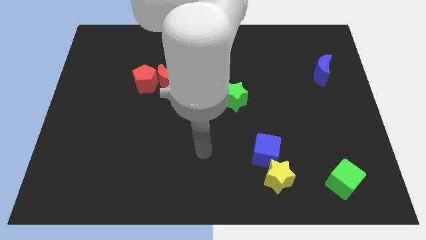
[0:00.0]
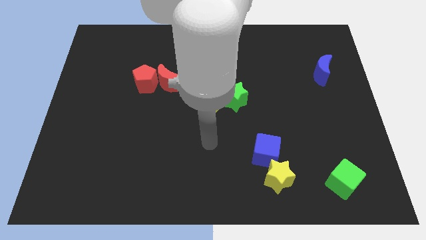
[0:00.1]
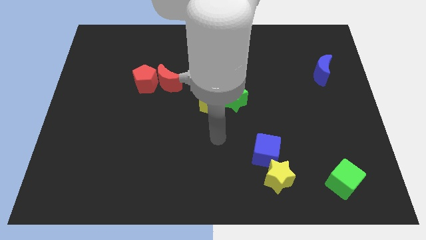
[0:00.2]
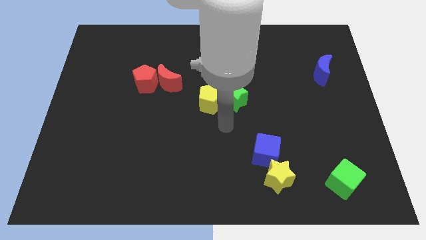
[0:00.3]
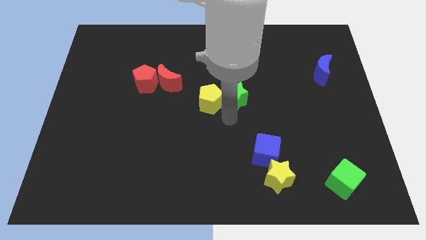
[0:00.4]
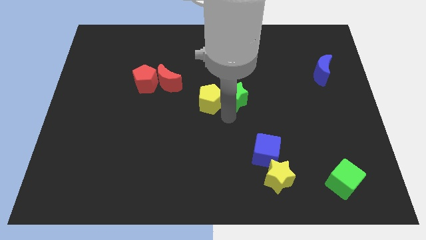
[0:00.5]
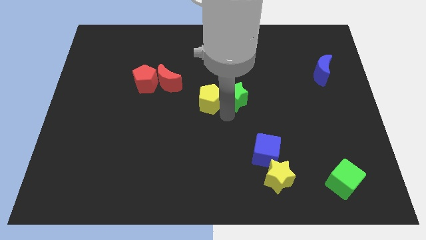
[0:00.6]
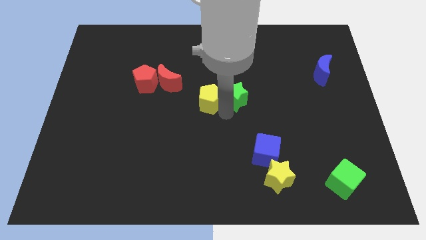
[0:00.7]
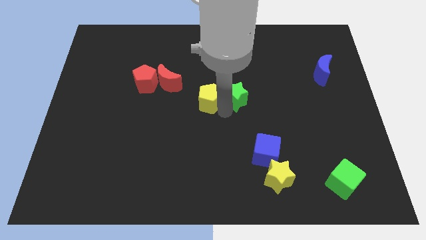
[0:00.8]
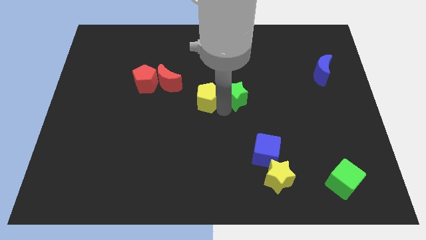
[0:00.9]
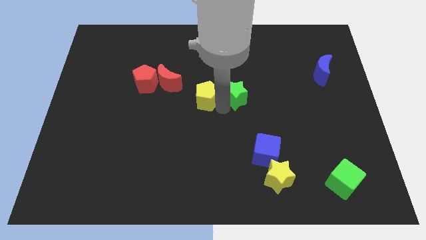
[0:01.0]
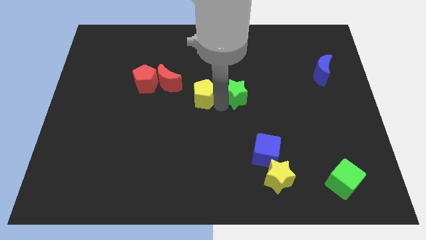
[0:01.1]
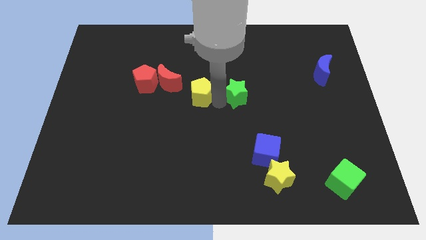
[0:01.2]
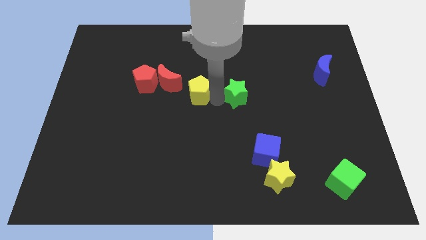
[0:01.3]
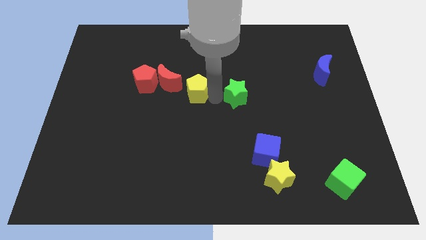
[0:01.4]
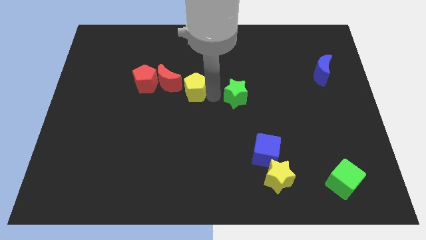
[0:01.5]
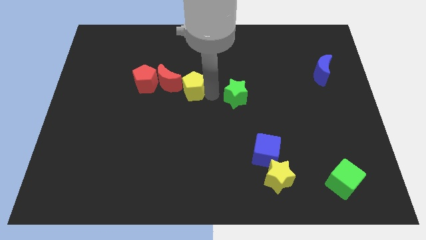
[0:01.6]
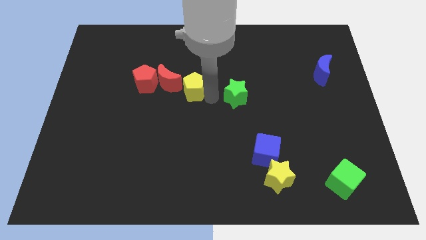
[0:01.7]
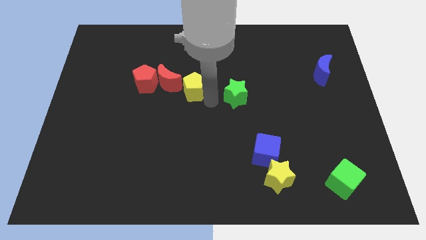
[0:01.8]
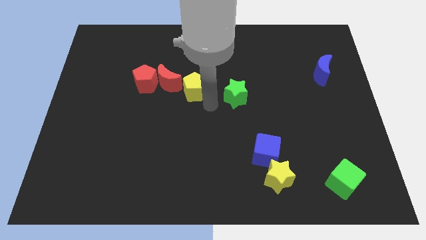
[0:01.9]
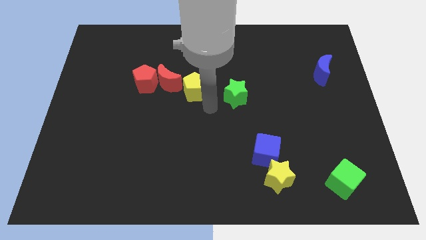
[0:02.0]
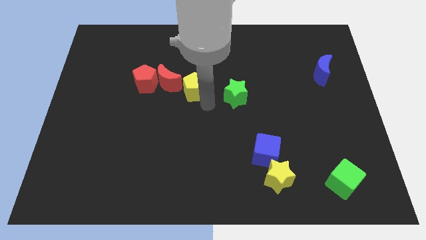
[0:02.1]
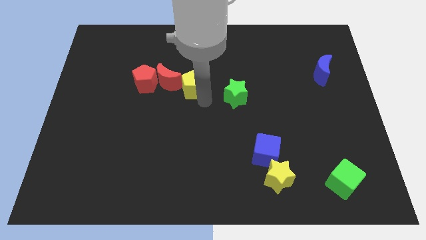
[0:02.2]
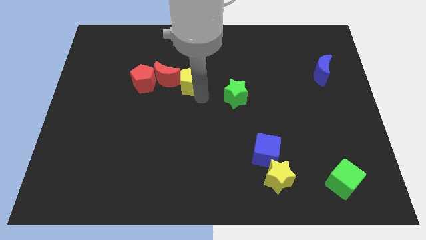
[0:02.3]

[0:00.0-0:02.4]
slide the yellow pentagon a little bit upwards and left diagonally

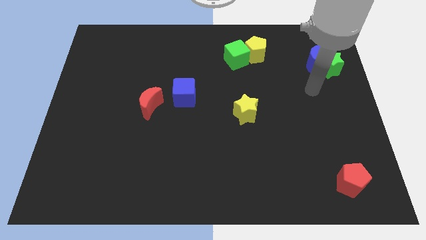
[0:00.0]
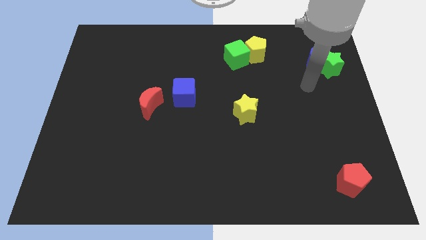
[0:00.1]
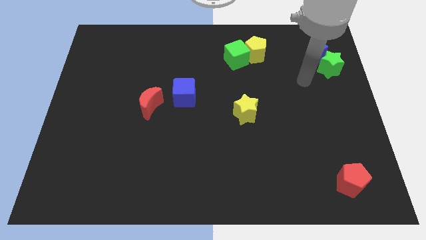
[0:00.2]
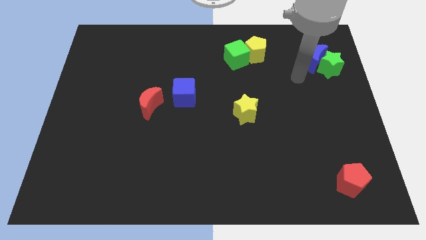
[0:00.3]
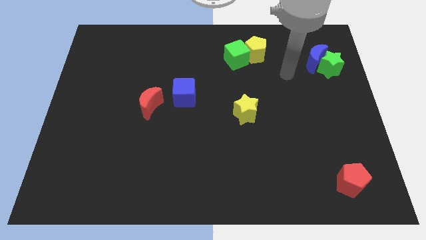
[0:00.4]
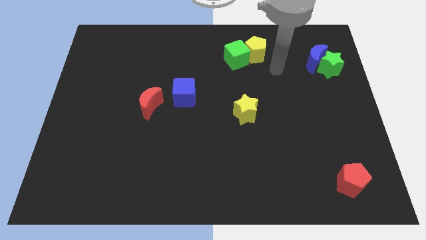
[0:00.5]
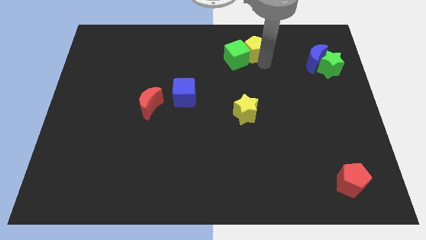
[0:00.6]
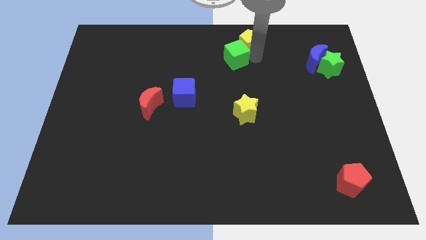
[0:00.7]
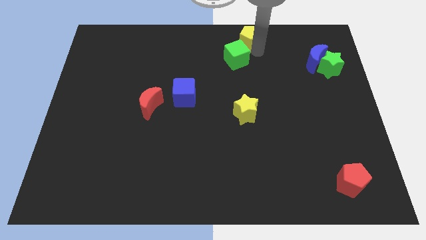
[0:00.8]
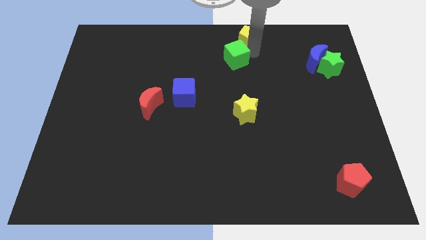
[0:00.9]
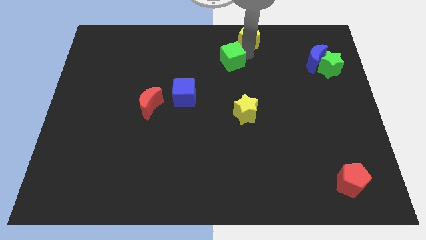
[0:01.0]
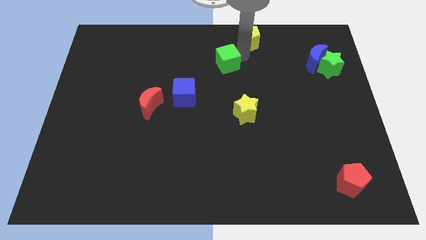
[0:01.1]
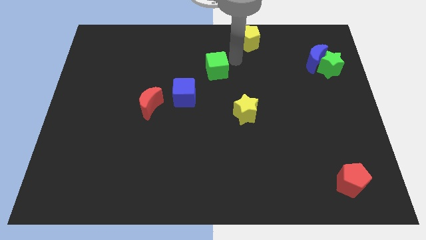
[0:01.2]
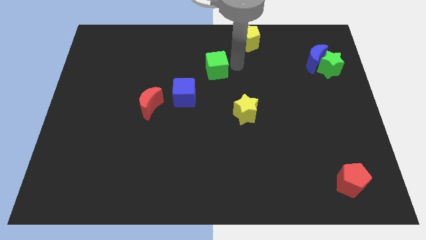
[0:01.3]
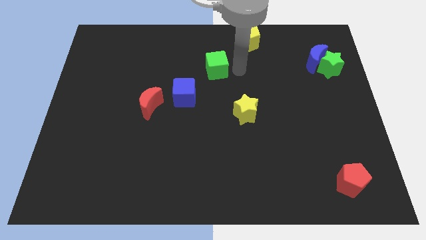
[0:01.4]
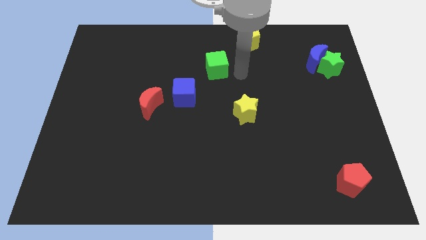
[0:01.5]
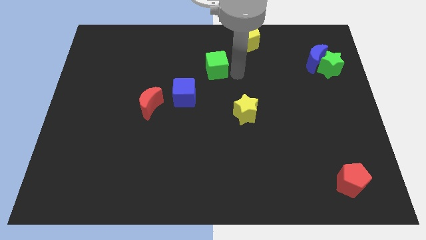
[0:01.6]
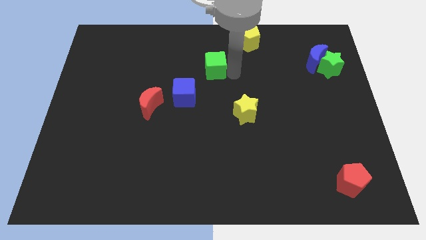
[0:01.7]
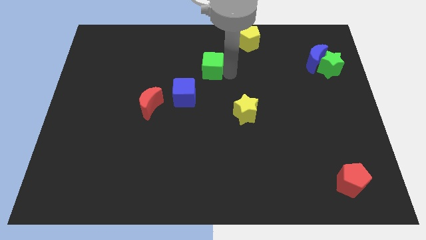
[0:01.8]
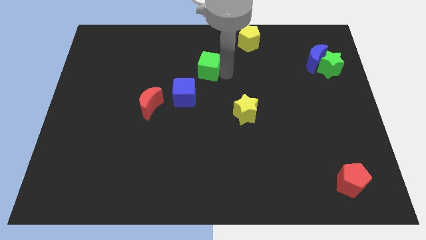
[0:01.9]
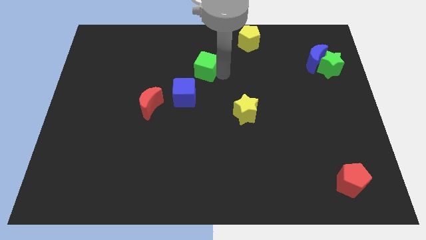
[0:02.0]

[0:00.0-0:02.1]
move the green cube to the left a bit

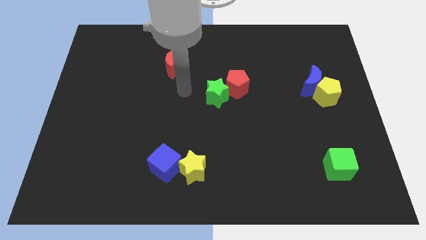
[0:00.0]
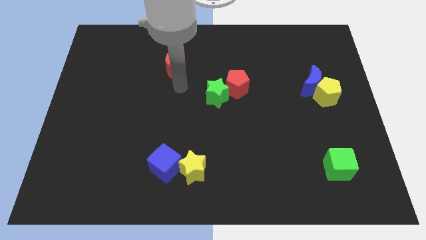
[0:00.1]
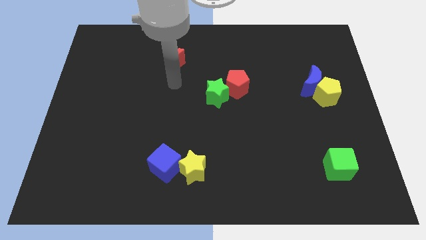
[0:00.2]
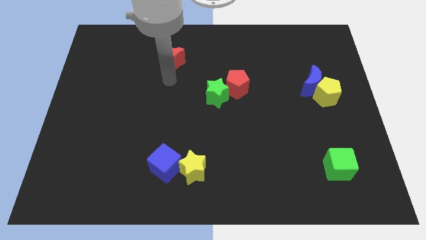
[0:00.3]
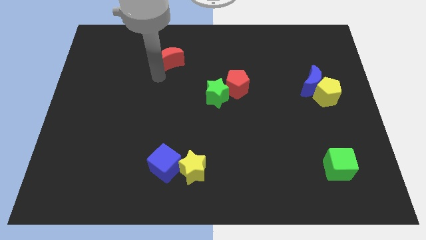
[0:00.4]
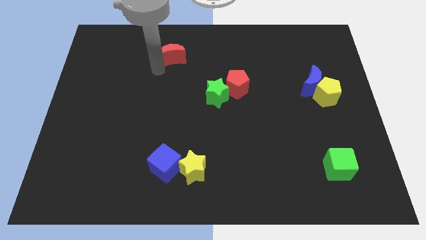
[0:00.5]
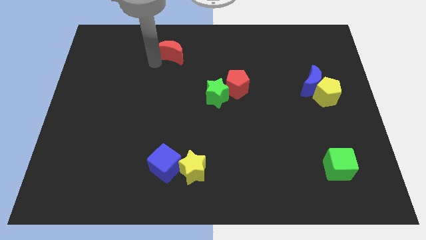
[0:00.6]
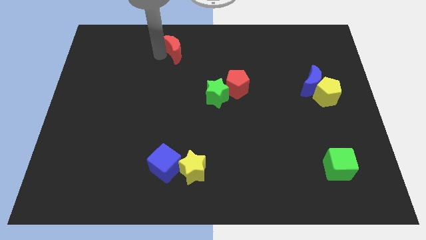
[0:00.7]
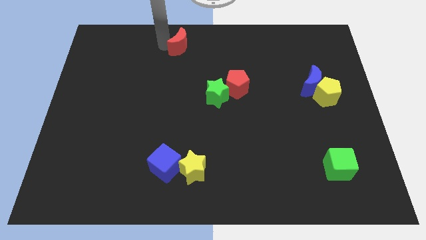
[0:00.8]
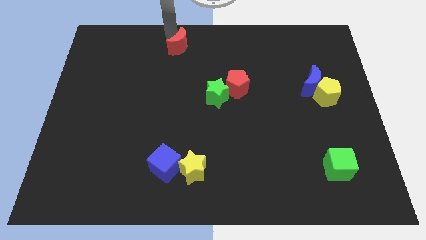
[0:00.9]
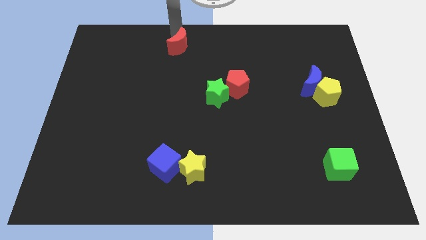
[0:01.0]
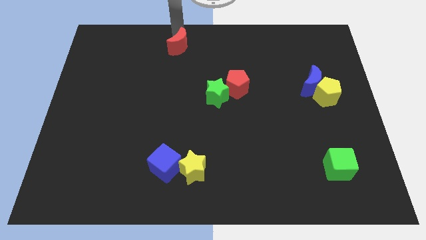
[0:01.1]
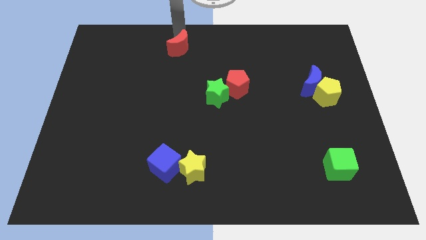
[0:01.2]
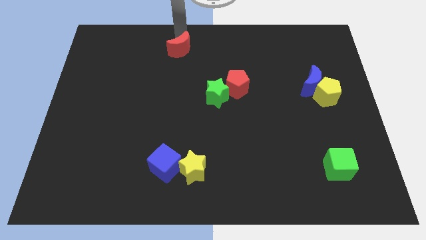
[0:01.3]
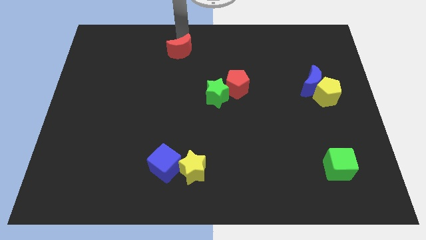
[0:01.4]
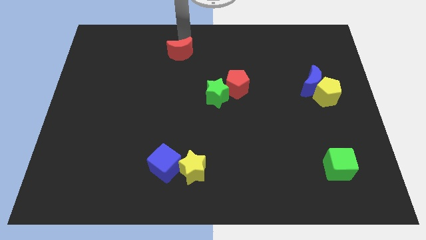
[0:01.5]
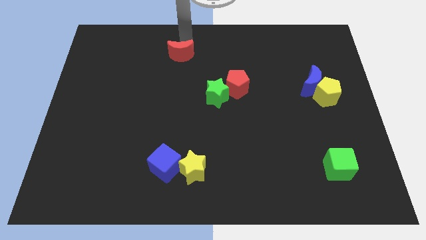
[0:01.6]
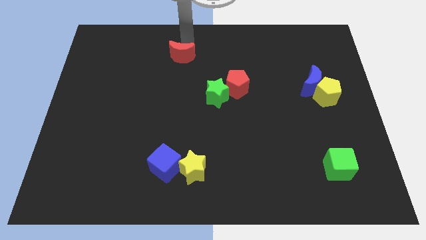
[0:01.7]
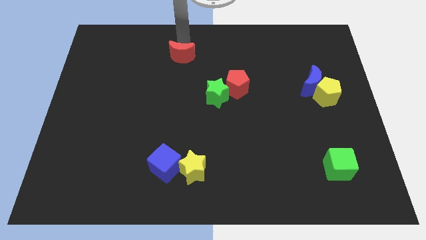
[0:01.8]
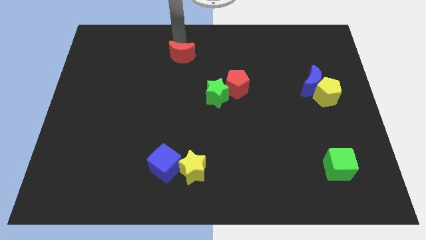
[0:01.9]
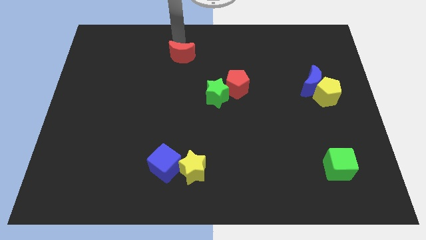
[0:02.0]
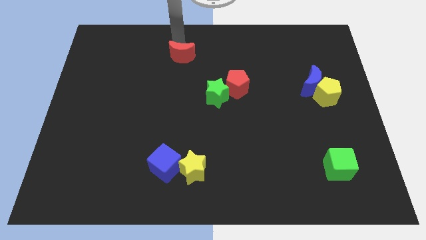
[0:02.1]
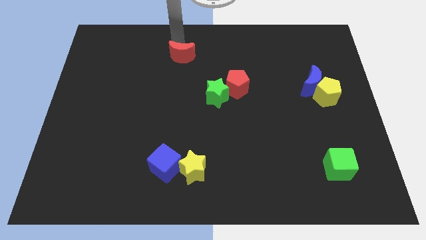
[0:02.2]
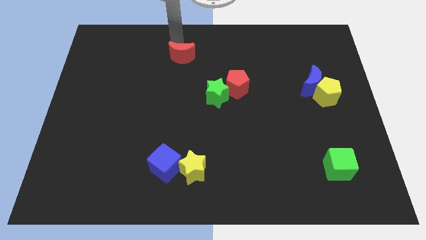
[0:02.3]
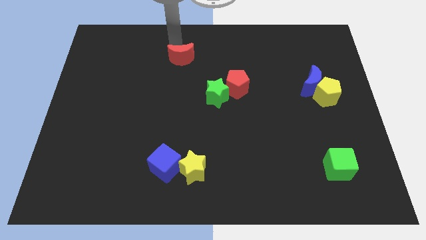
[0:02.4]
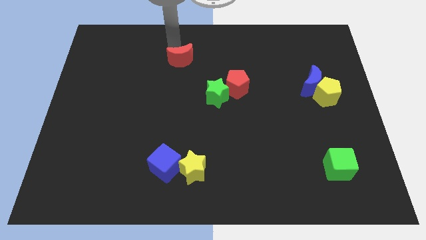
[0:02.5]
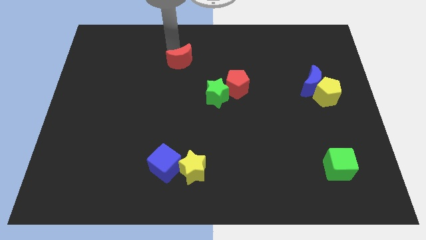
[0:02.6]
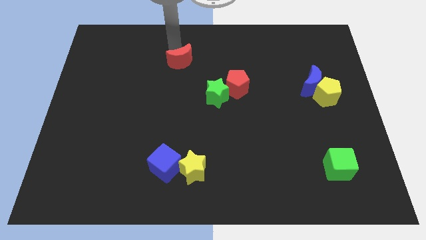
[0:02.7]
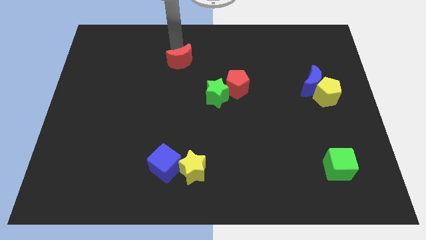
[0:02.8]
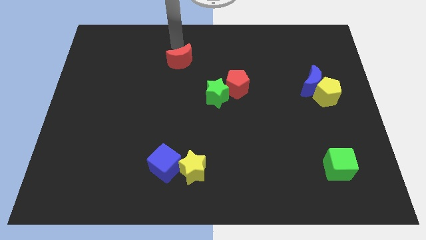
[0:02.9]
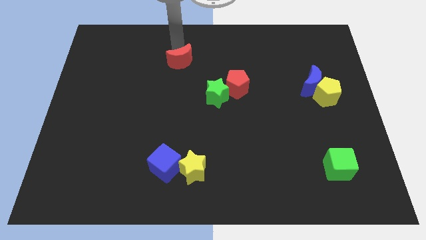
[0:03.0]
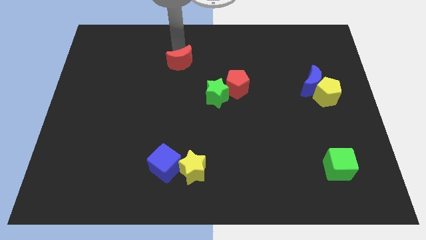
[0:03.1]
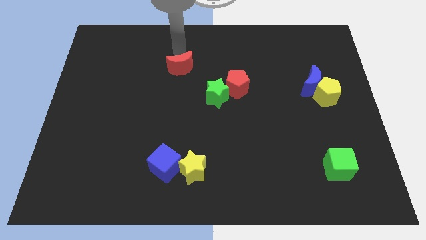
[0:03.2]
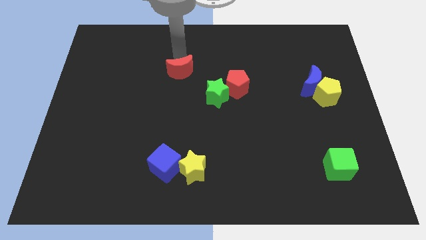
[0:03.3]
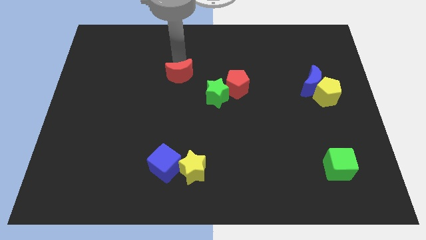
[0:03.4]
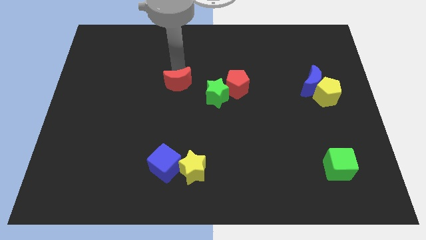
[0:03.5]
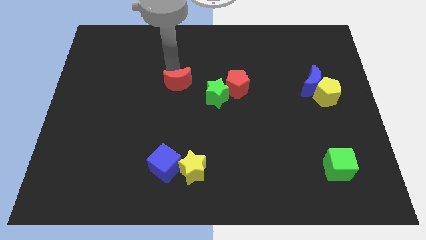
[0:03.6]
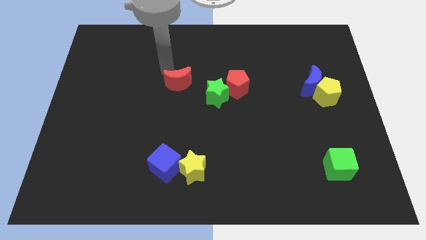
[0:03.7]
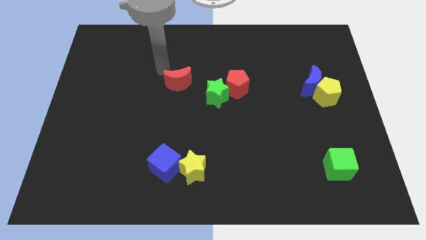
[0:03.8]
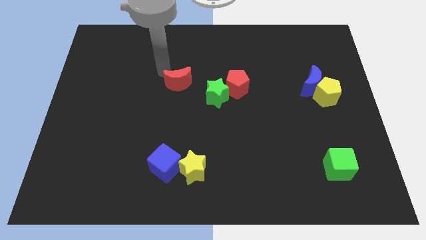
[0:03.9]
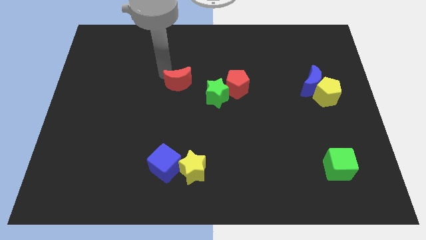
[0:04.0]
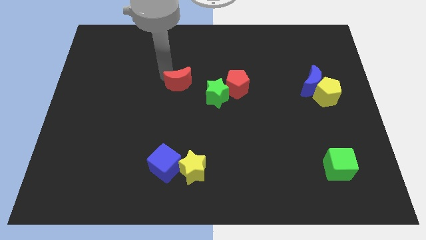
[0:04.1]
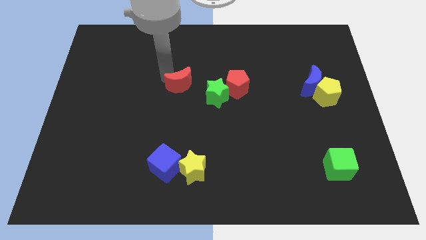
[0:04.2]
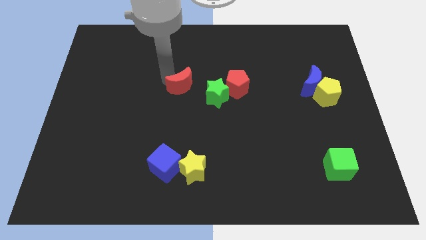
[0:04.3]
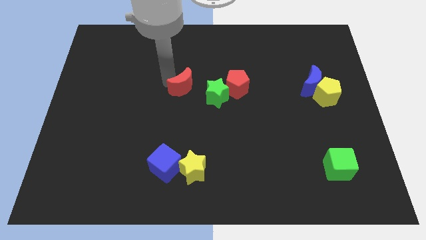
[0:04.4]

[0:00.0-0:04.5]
slide the red moon somewhat down and to the right
